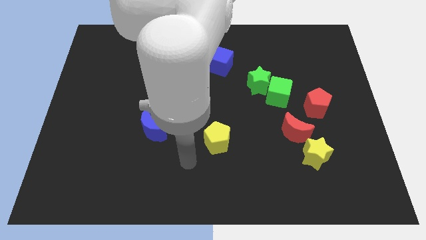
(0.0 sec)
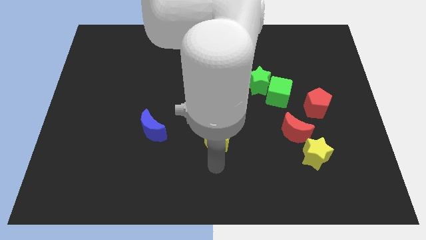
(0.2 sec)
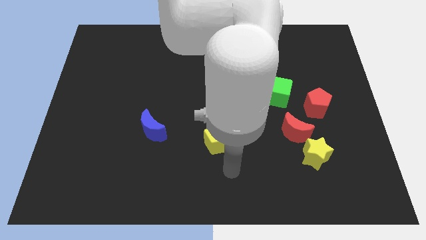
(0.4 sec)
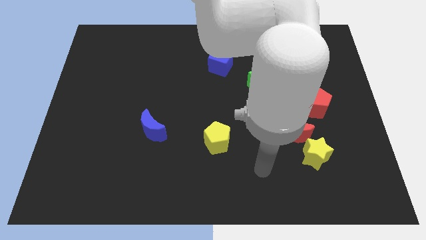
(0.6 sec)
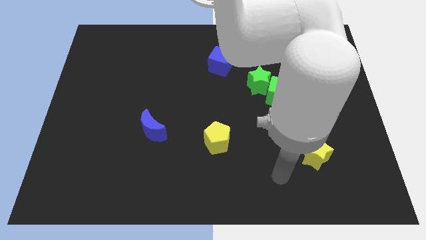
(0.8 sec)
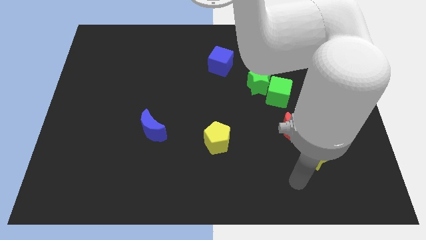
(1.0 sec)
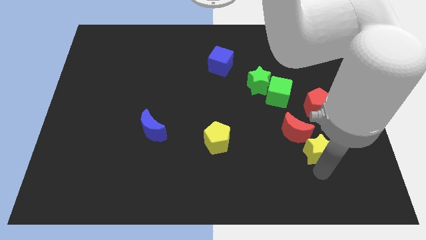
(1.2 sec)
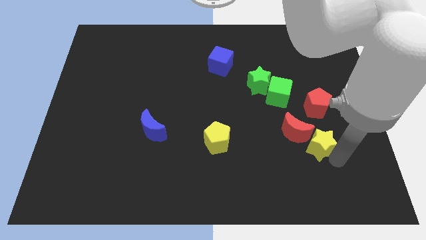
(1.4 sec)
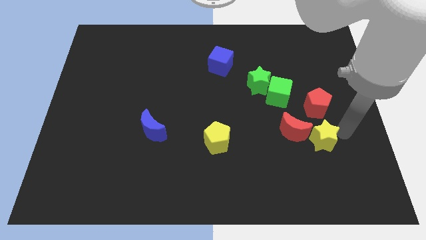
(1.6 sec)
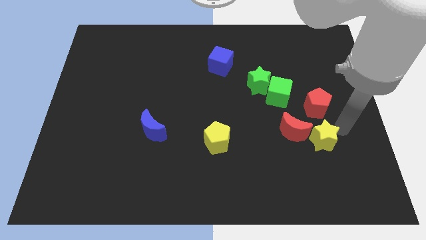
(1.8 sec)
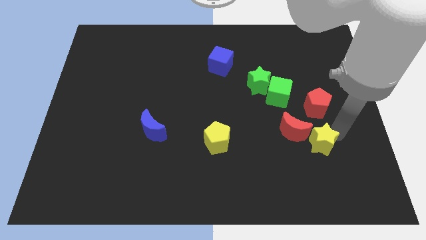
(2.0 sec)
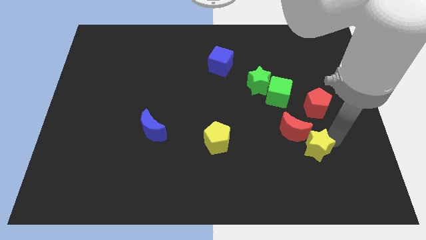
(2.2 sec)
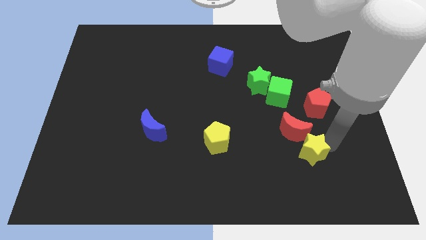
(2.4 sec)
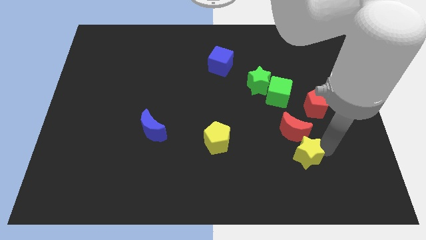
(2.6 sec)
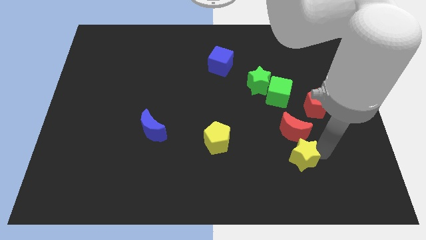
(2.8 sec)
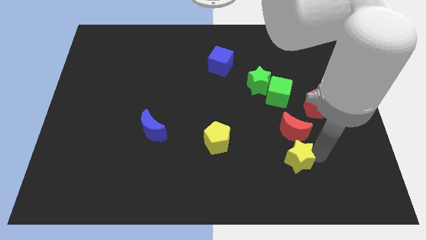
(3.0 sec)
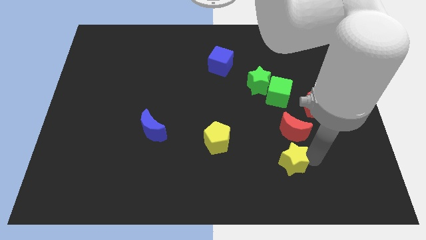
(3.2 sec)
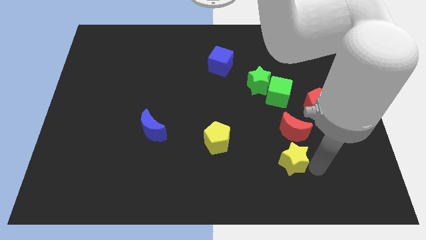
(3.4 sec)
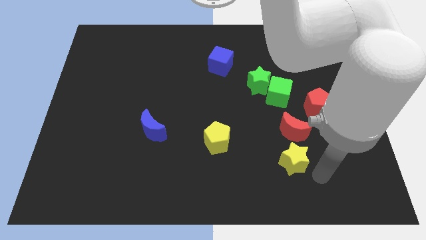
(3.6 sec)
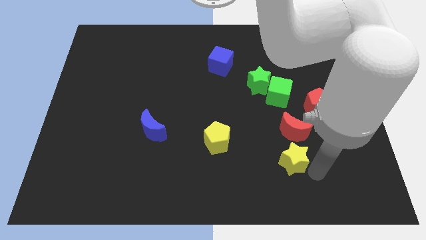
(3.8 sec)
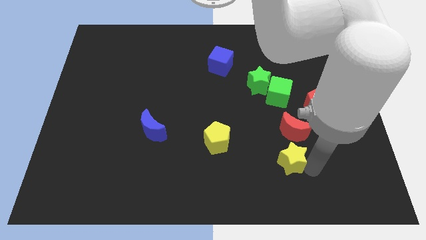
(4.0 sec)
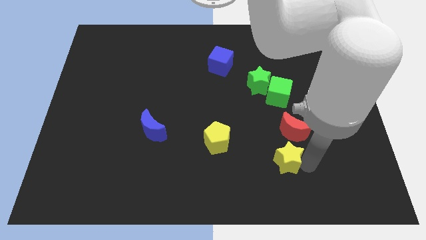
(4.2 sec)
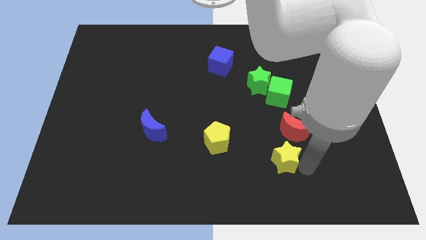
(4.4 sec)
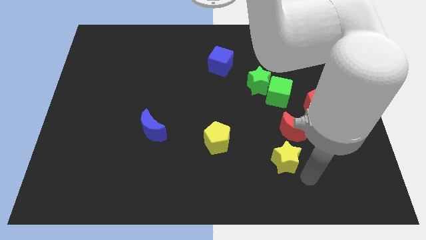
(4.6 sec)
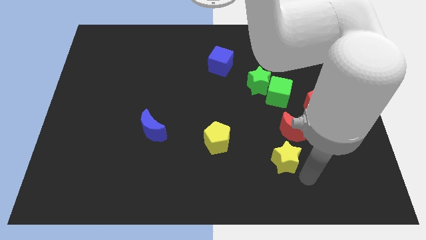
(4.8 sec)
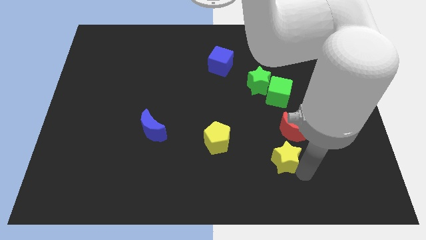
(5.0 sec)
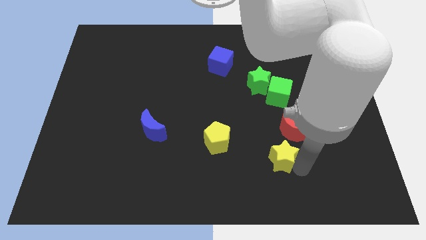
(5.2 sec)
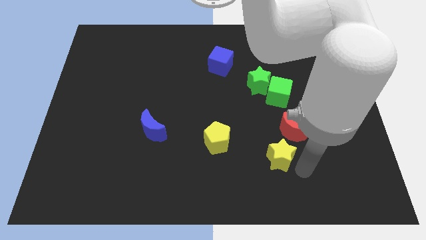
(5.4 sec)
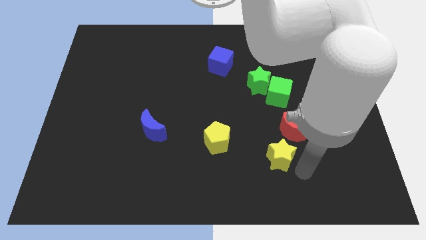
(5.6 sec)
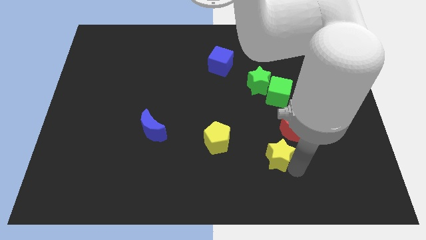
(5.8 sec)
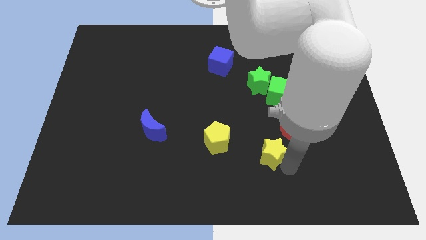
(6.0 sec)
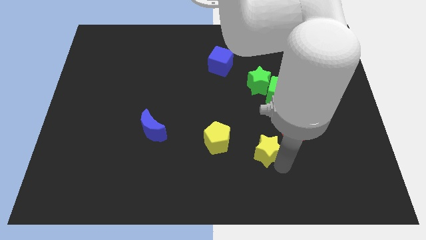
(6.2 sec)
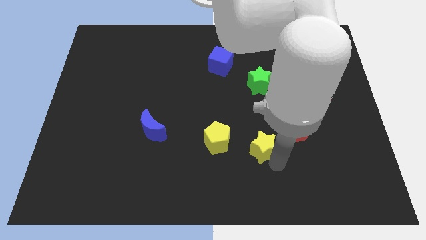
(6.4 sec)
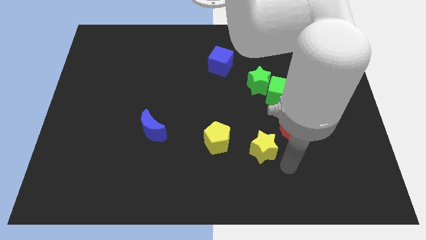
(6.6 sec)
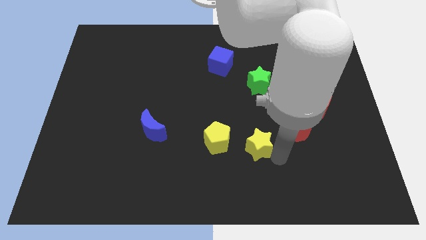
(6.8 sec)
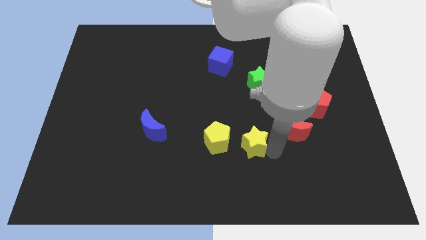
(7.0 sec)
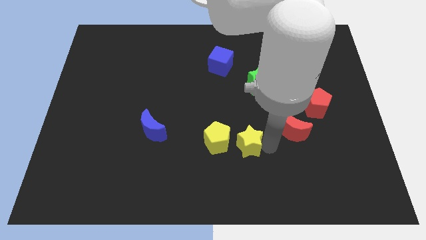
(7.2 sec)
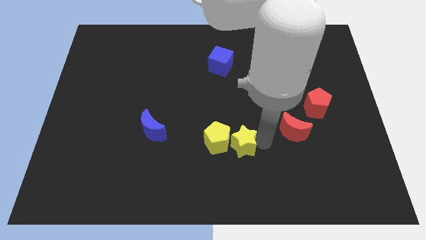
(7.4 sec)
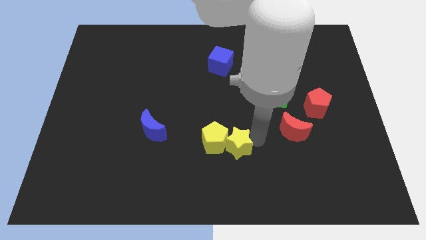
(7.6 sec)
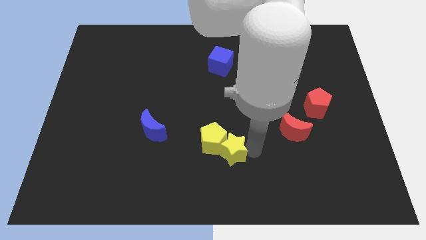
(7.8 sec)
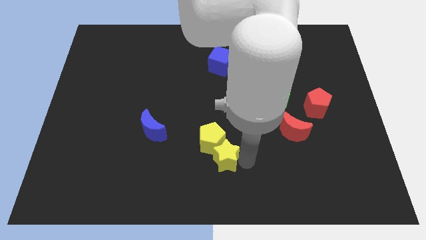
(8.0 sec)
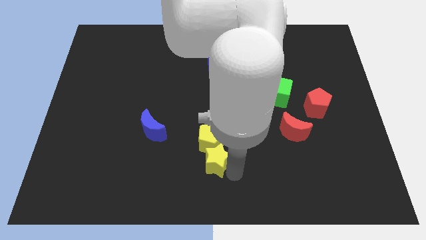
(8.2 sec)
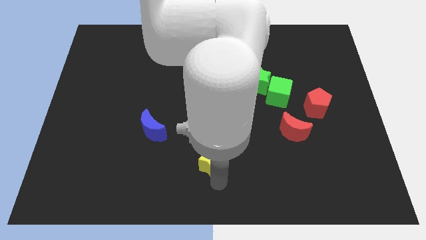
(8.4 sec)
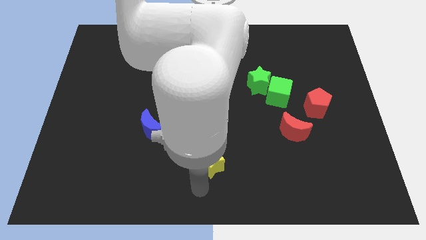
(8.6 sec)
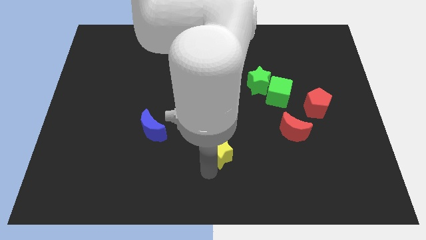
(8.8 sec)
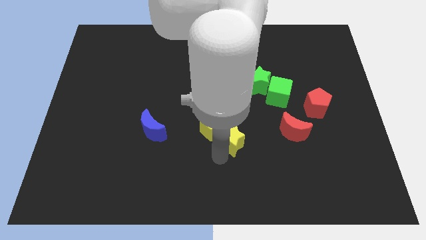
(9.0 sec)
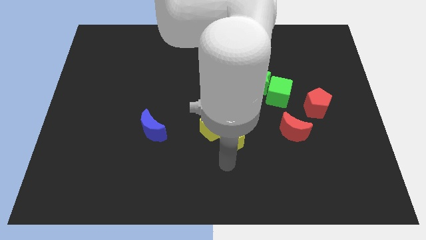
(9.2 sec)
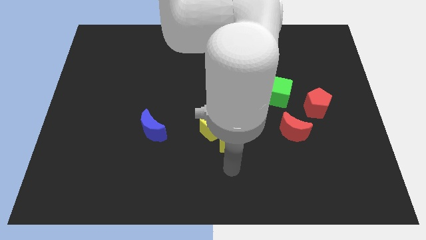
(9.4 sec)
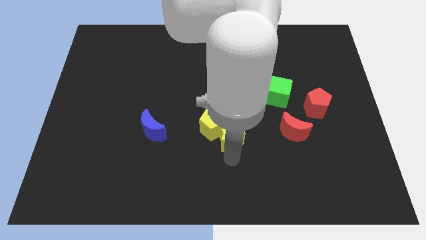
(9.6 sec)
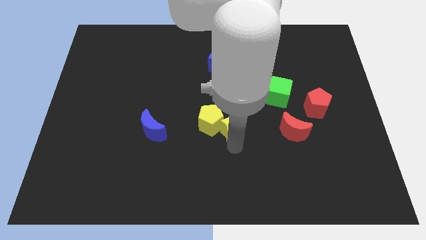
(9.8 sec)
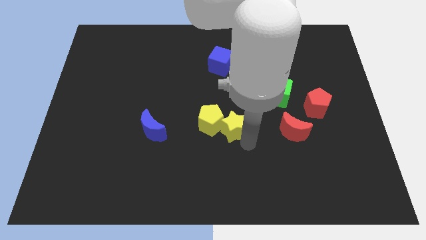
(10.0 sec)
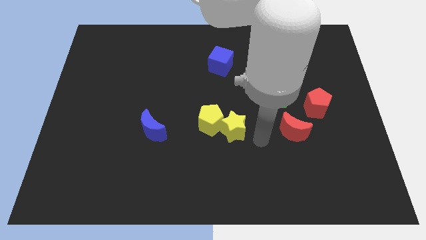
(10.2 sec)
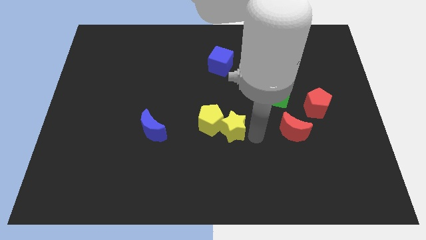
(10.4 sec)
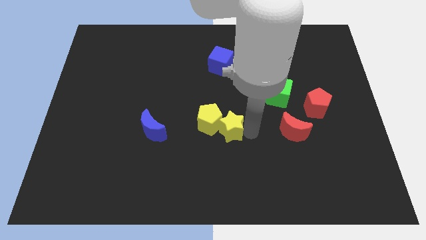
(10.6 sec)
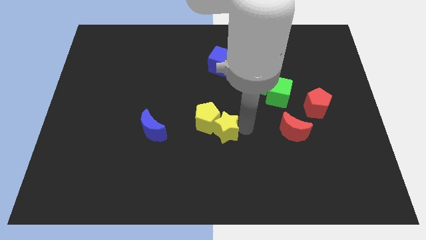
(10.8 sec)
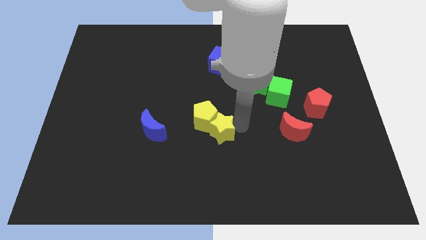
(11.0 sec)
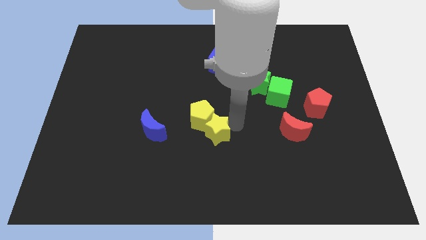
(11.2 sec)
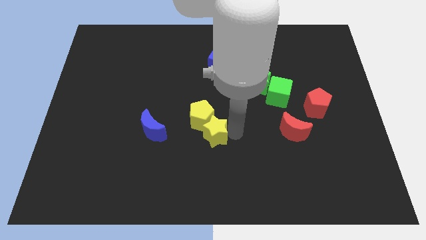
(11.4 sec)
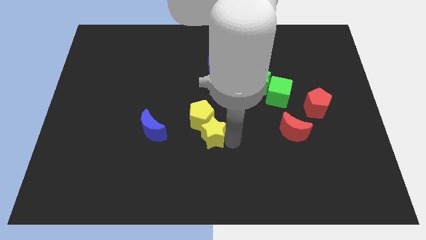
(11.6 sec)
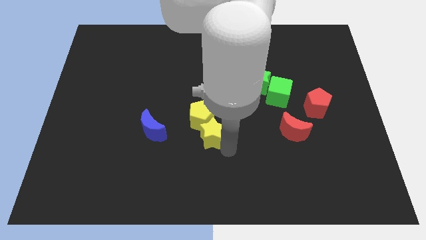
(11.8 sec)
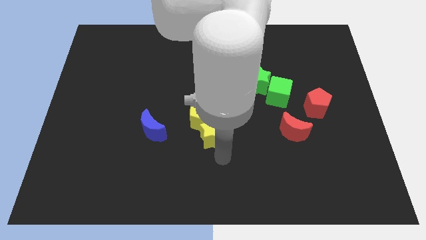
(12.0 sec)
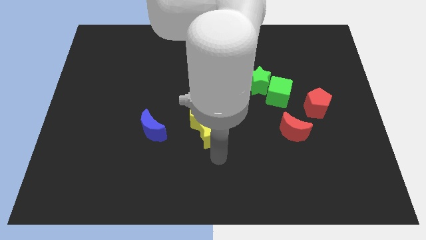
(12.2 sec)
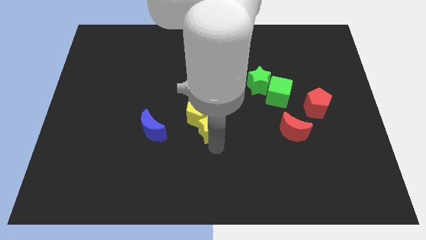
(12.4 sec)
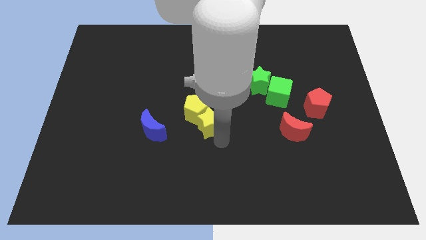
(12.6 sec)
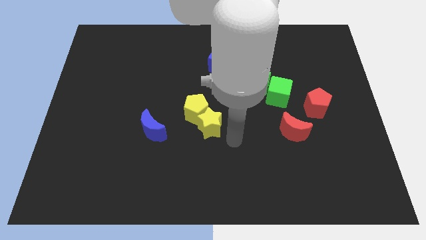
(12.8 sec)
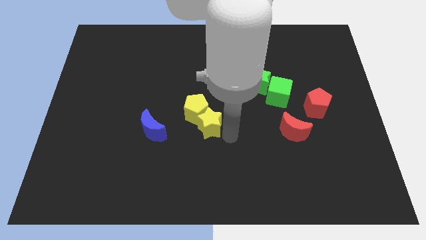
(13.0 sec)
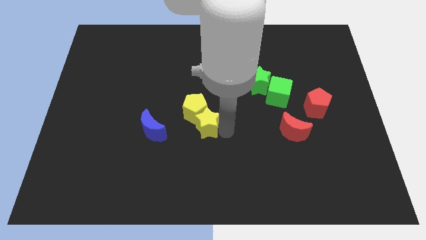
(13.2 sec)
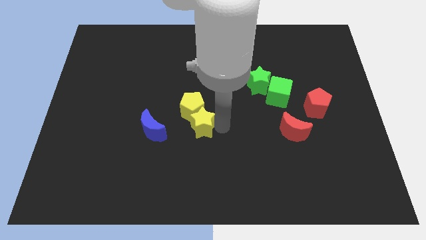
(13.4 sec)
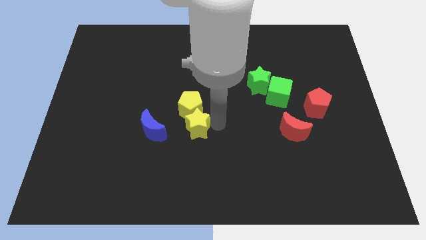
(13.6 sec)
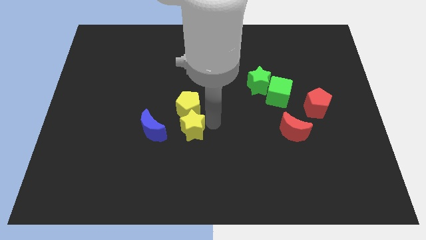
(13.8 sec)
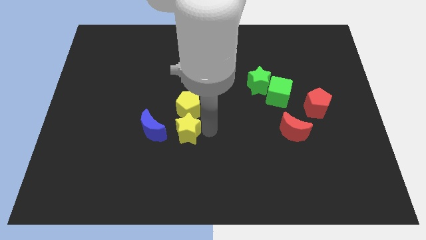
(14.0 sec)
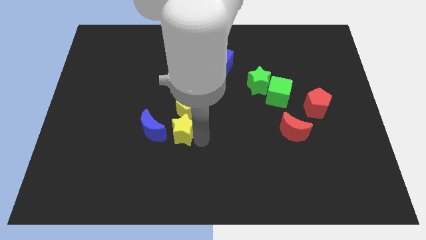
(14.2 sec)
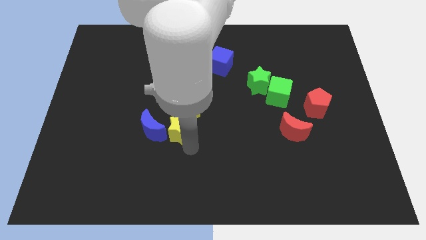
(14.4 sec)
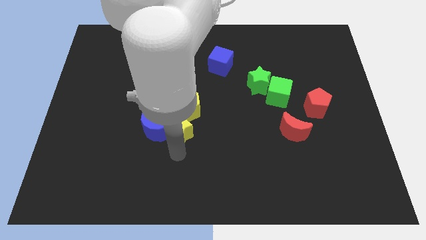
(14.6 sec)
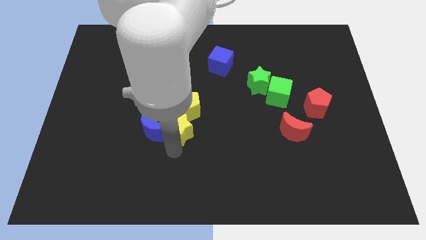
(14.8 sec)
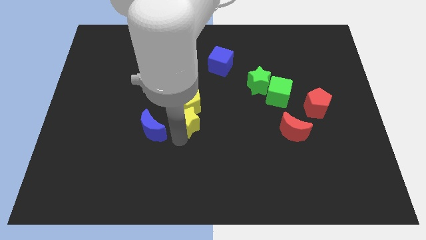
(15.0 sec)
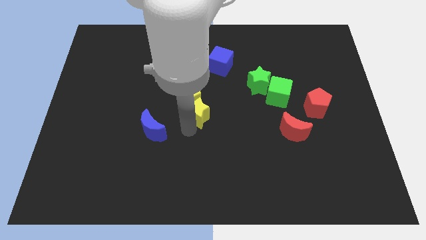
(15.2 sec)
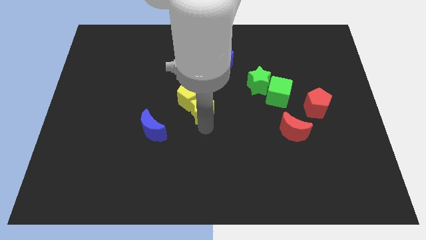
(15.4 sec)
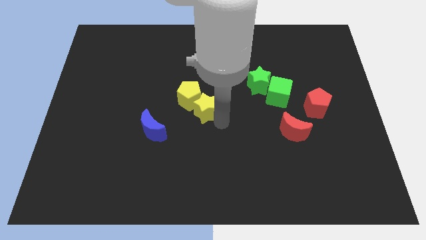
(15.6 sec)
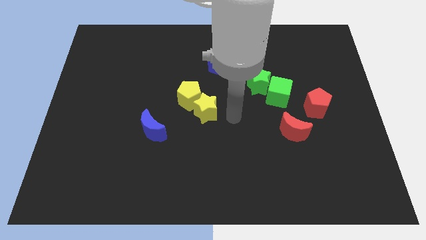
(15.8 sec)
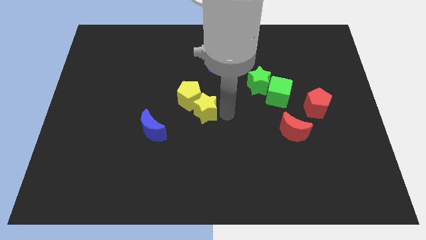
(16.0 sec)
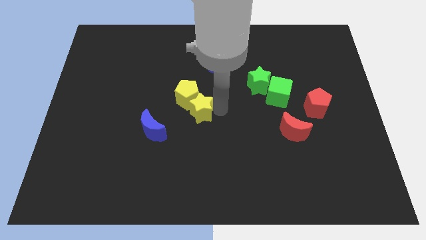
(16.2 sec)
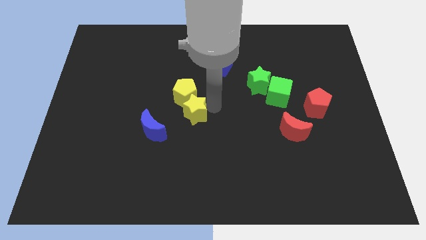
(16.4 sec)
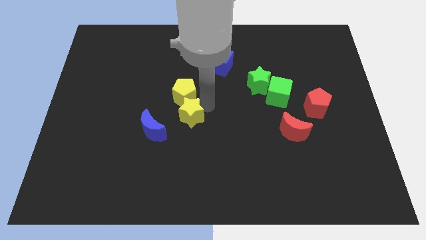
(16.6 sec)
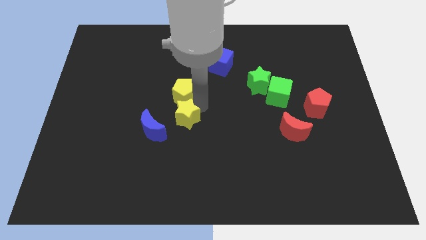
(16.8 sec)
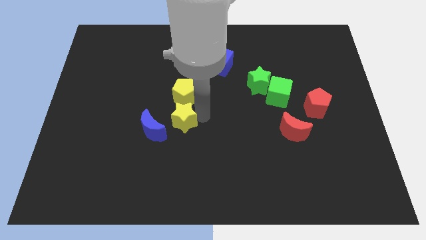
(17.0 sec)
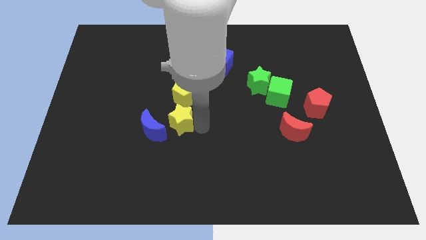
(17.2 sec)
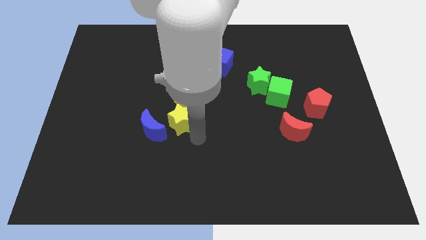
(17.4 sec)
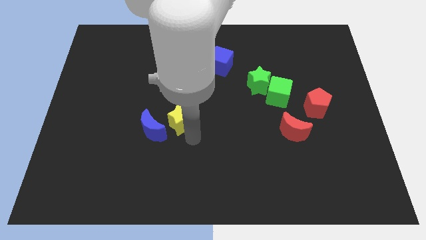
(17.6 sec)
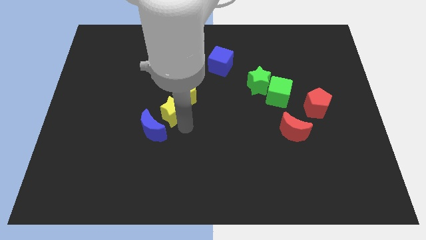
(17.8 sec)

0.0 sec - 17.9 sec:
push the yellow star to the top side of the blue moon
